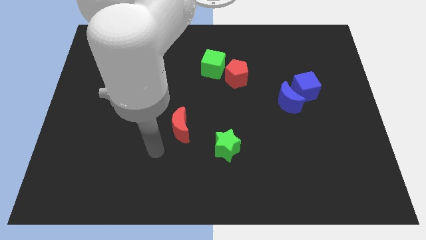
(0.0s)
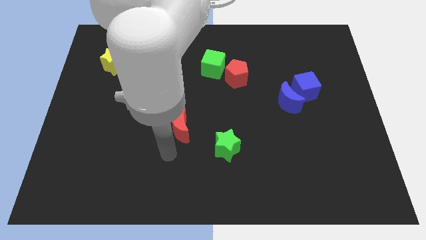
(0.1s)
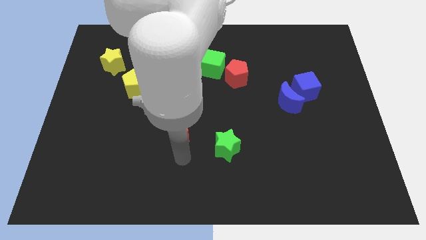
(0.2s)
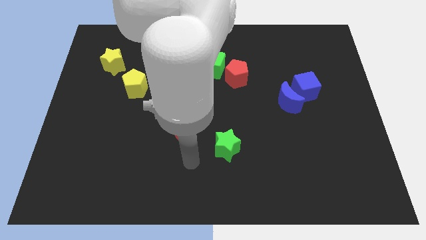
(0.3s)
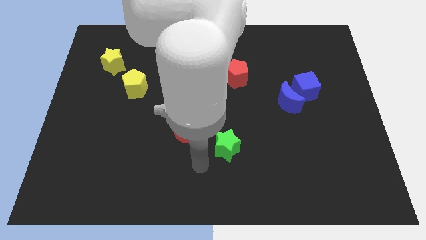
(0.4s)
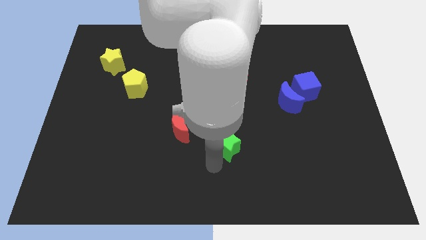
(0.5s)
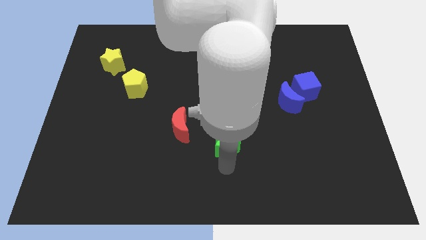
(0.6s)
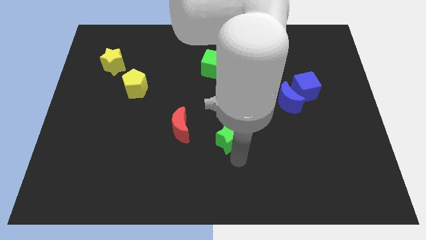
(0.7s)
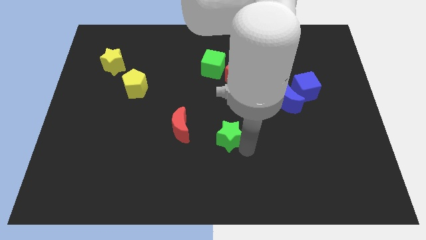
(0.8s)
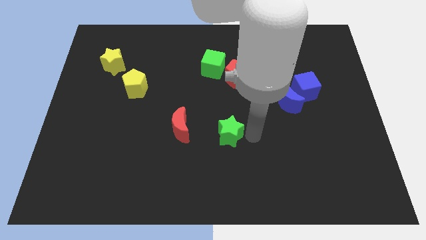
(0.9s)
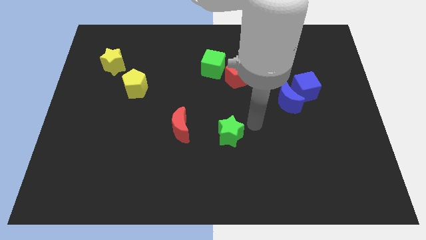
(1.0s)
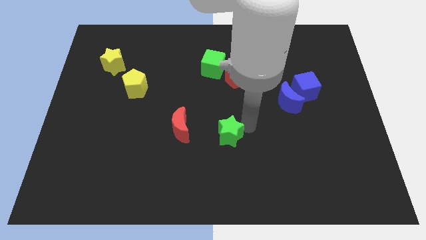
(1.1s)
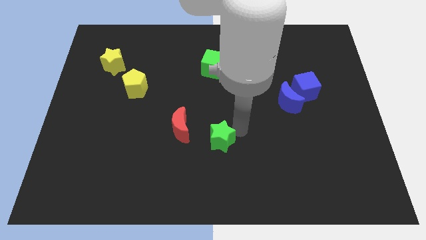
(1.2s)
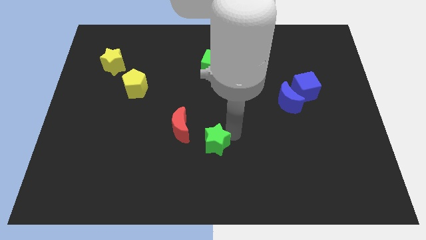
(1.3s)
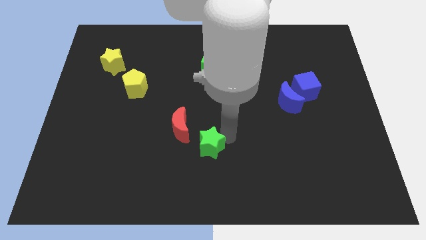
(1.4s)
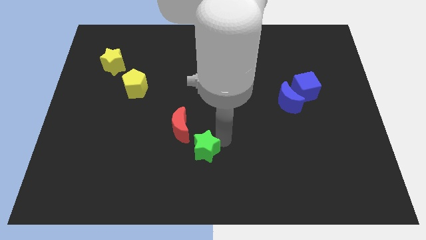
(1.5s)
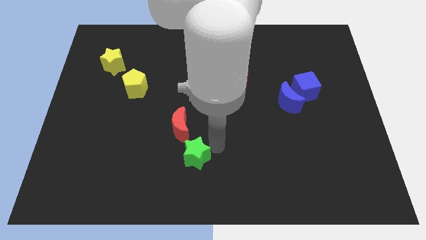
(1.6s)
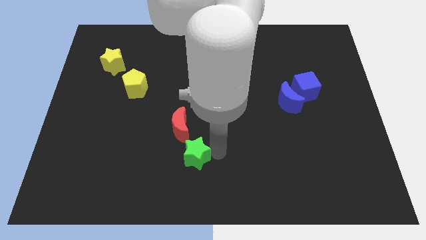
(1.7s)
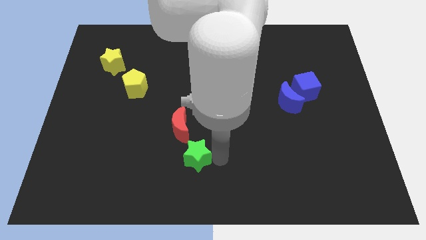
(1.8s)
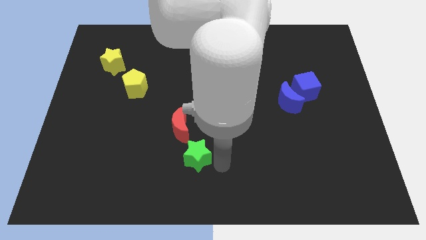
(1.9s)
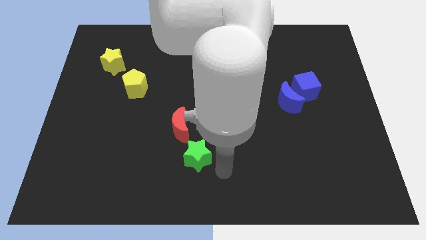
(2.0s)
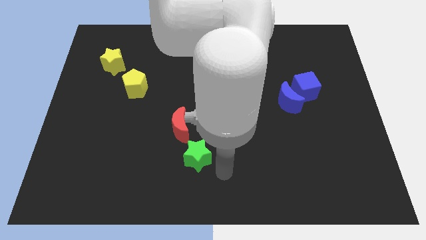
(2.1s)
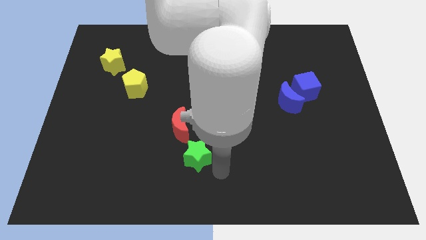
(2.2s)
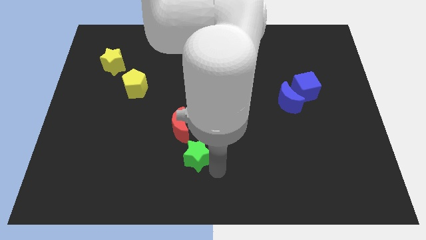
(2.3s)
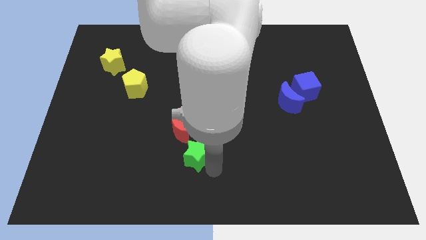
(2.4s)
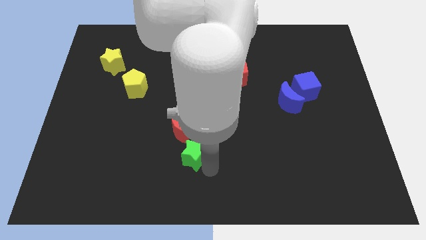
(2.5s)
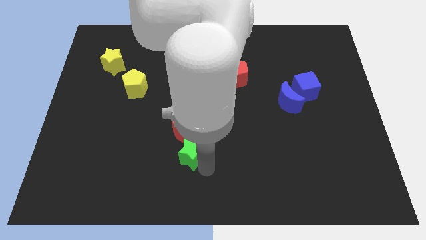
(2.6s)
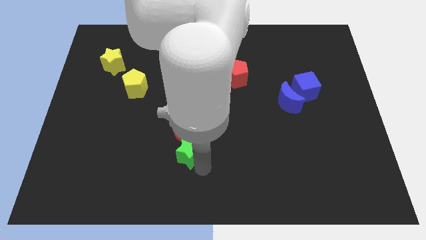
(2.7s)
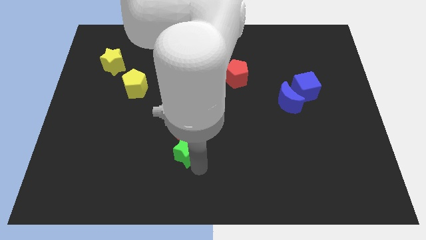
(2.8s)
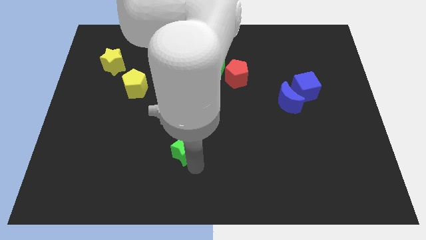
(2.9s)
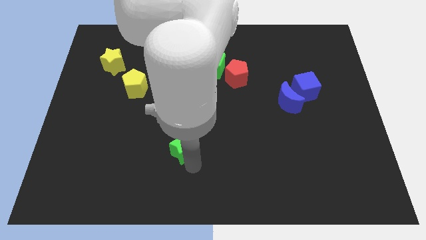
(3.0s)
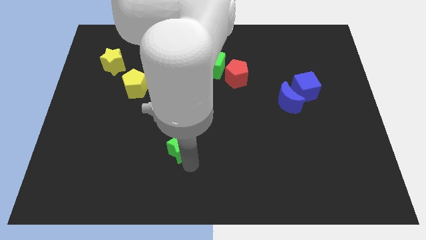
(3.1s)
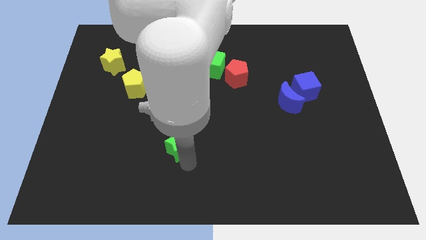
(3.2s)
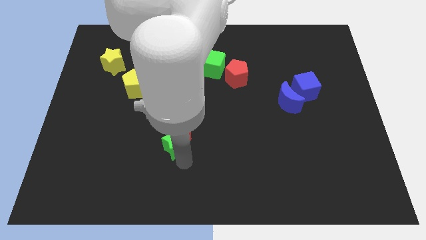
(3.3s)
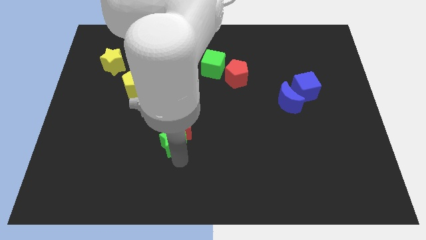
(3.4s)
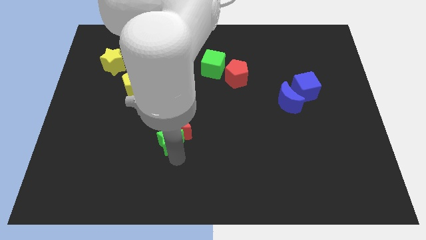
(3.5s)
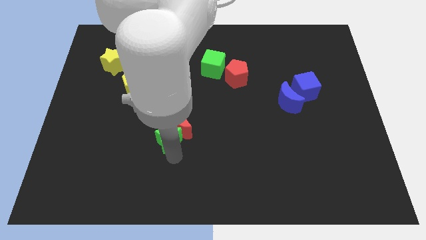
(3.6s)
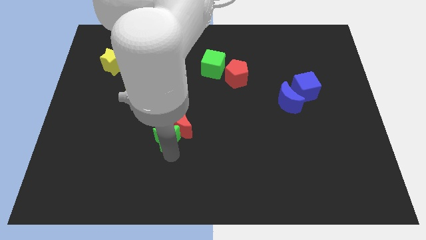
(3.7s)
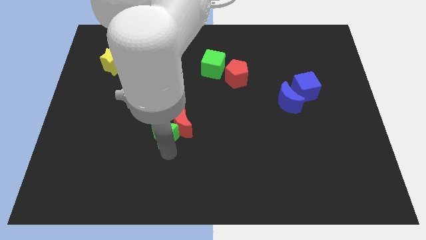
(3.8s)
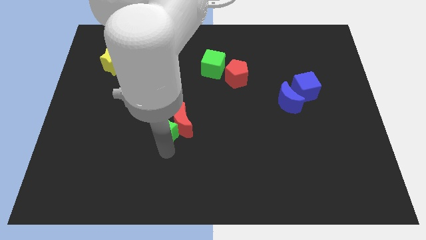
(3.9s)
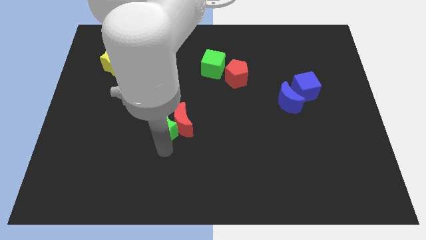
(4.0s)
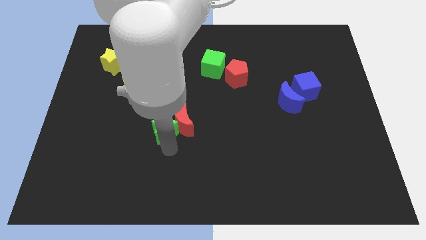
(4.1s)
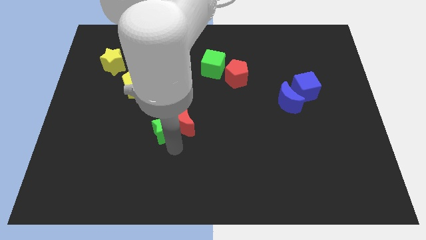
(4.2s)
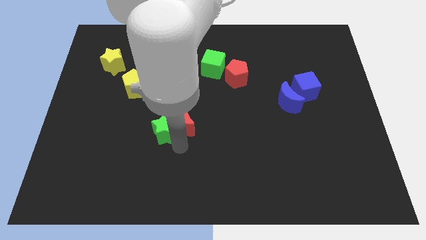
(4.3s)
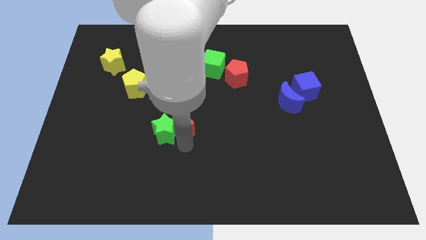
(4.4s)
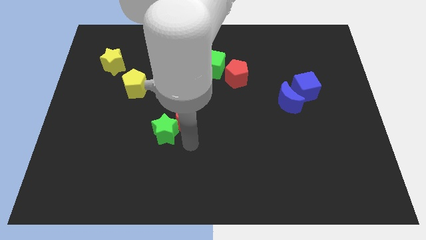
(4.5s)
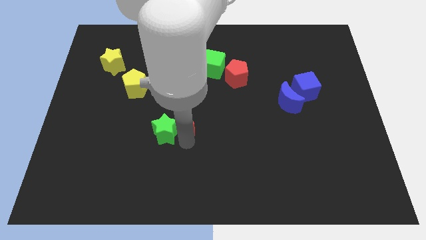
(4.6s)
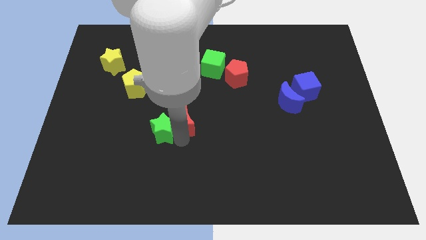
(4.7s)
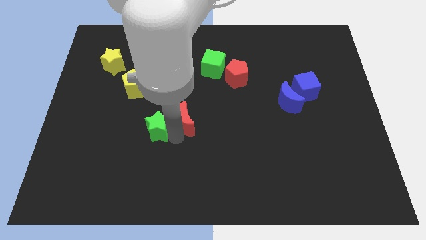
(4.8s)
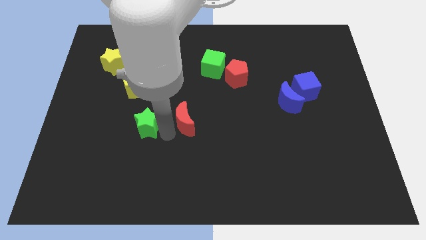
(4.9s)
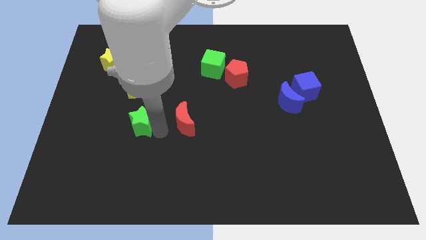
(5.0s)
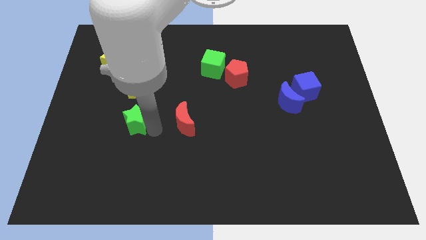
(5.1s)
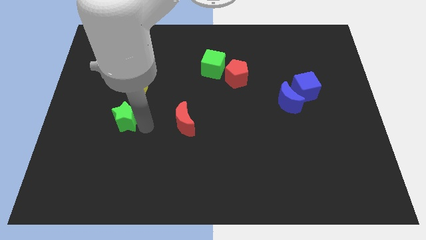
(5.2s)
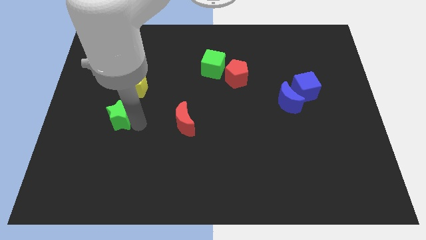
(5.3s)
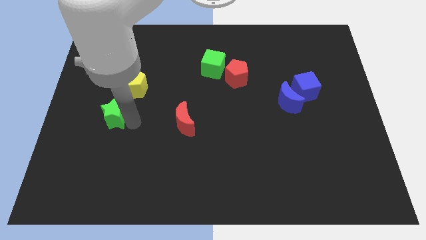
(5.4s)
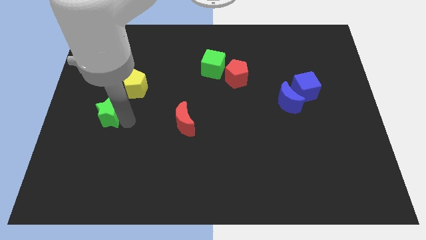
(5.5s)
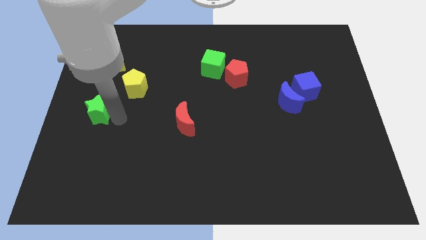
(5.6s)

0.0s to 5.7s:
move the green star to the left side
